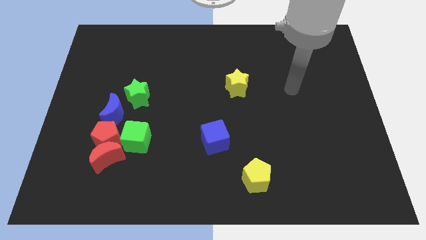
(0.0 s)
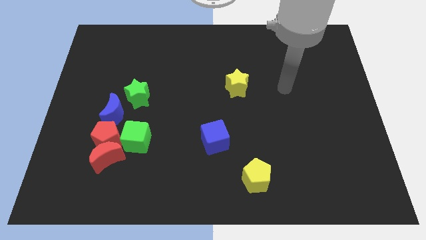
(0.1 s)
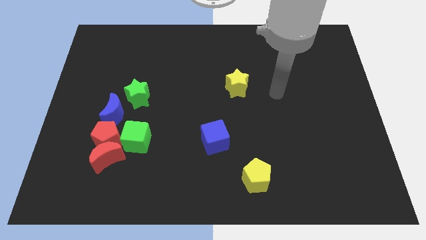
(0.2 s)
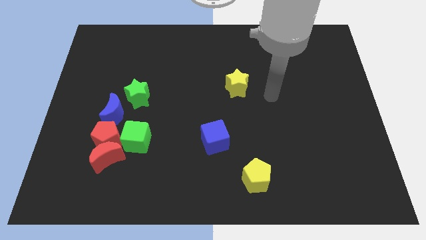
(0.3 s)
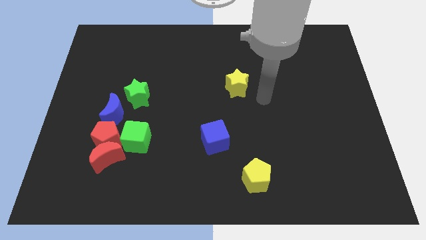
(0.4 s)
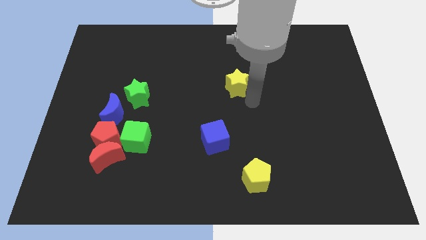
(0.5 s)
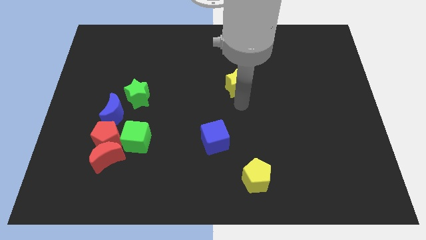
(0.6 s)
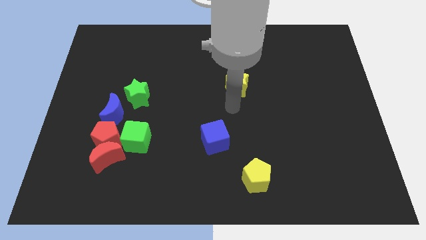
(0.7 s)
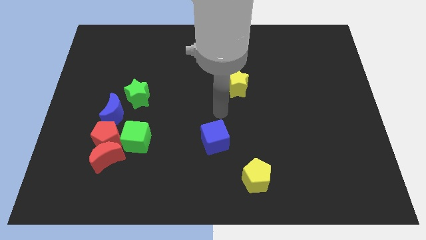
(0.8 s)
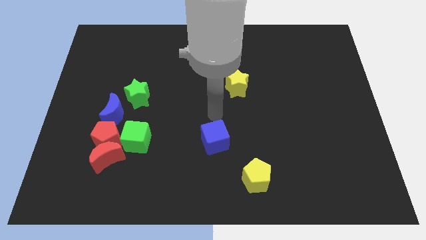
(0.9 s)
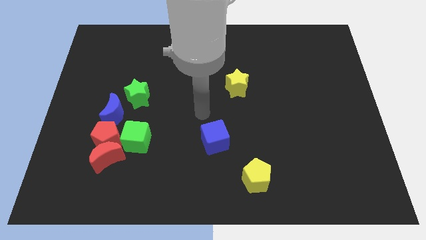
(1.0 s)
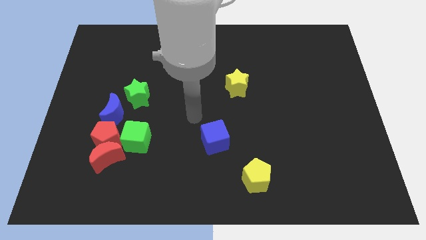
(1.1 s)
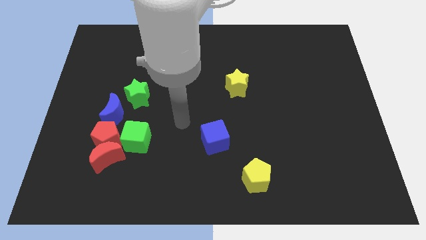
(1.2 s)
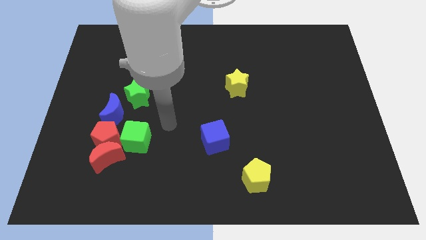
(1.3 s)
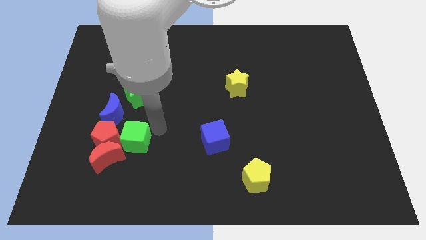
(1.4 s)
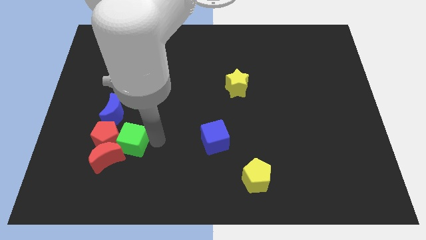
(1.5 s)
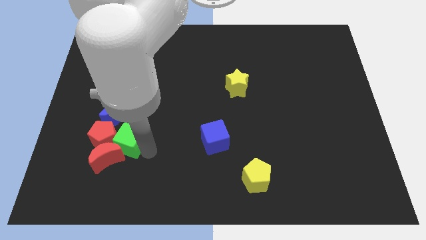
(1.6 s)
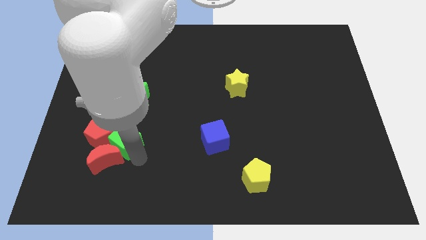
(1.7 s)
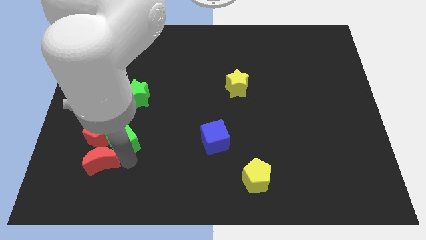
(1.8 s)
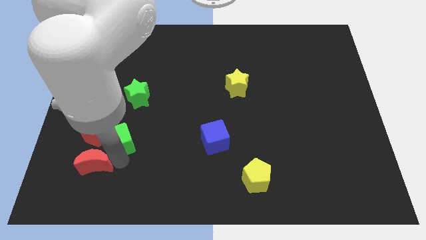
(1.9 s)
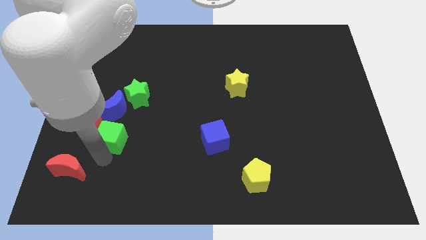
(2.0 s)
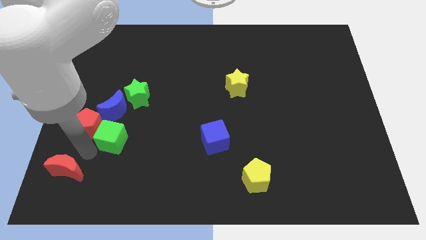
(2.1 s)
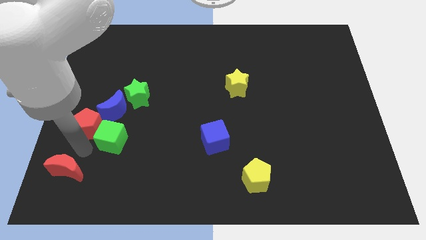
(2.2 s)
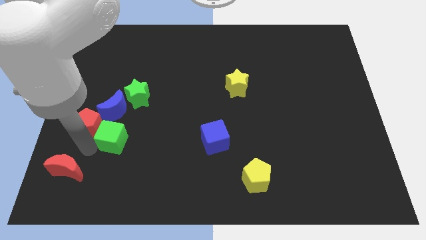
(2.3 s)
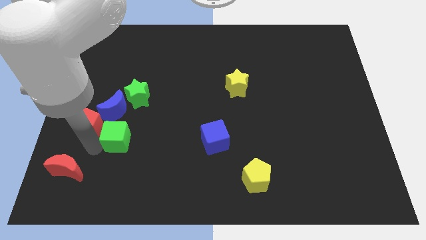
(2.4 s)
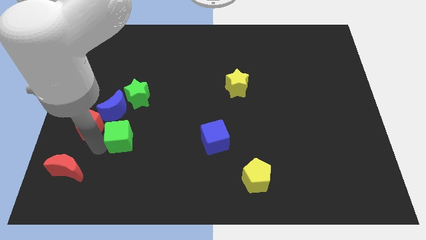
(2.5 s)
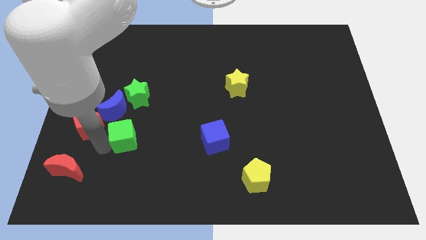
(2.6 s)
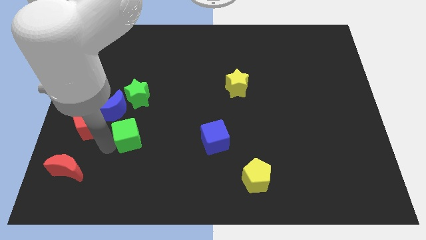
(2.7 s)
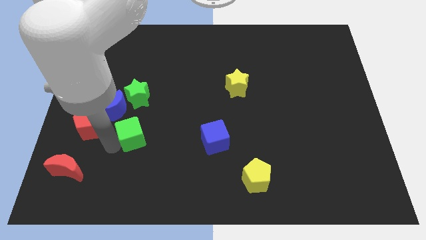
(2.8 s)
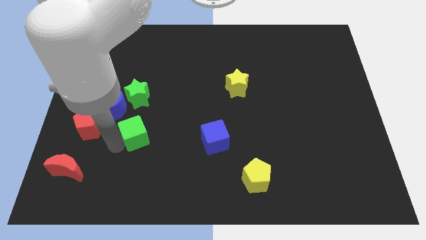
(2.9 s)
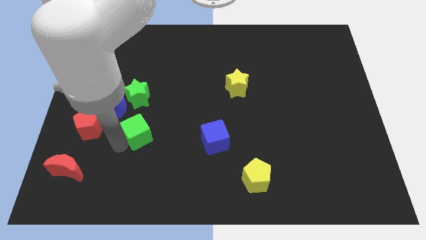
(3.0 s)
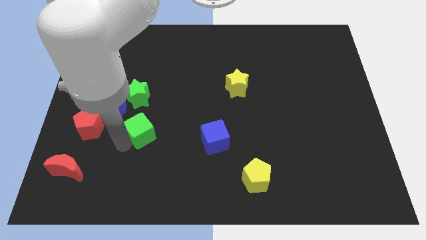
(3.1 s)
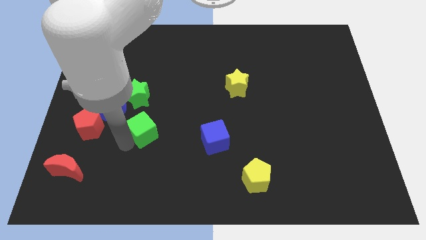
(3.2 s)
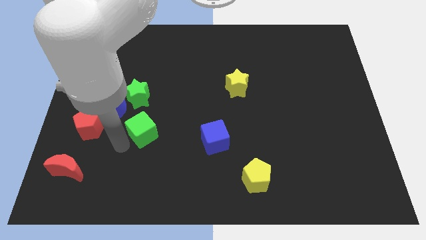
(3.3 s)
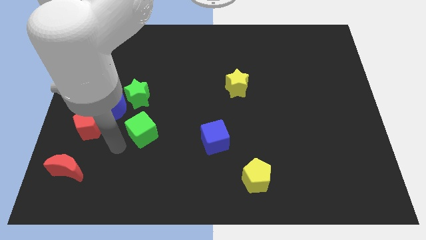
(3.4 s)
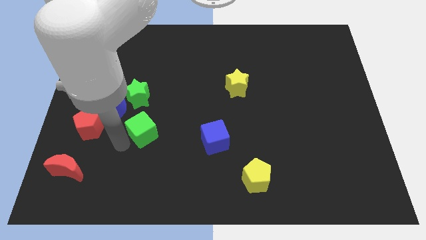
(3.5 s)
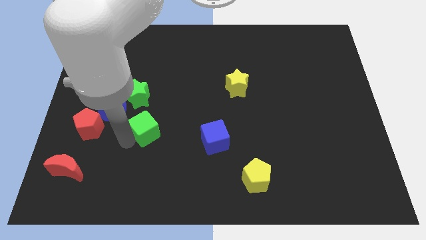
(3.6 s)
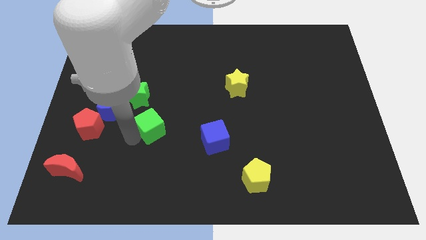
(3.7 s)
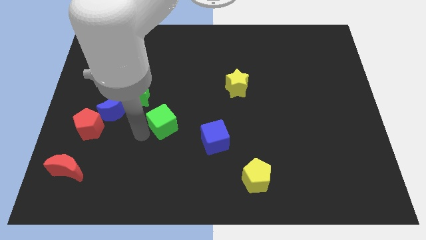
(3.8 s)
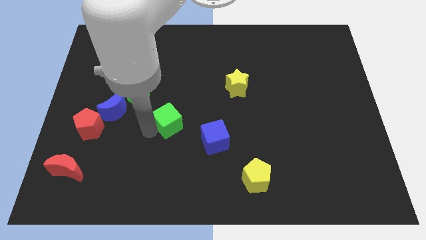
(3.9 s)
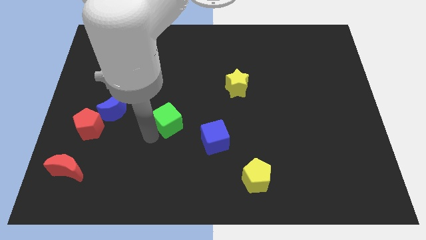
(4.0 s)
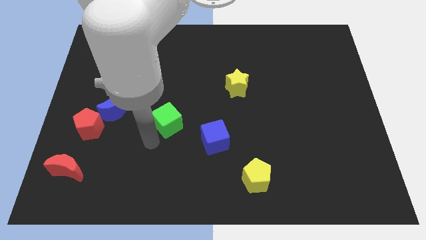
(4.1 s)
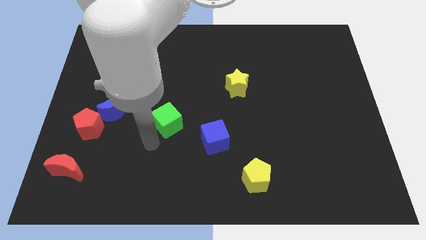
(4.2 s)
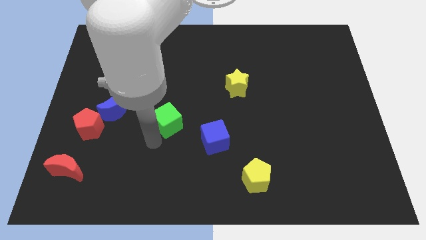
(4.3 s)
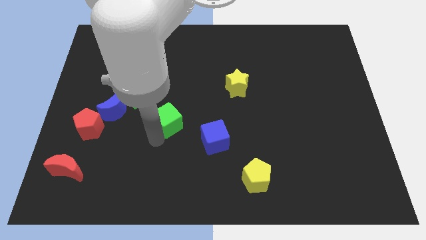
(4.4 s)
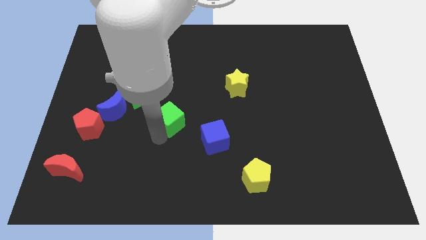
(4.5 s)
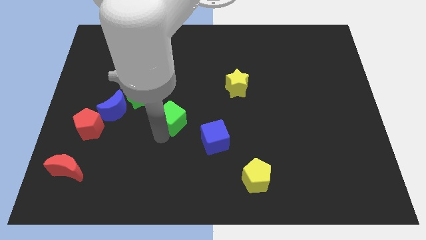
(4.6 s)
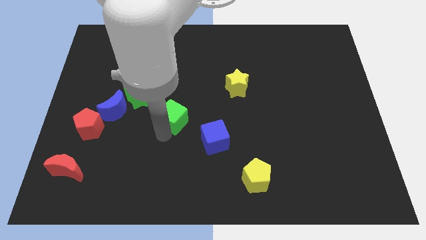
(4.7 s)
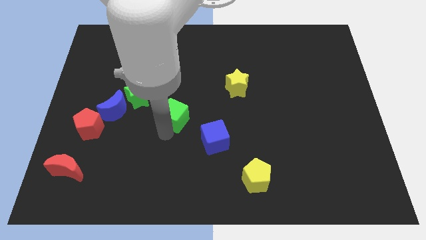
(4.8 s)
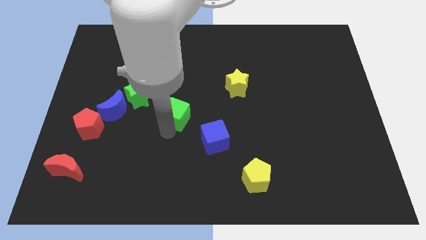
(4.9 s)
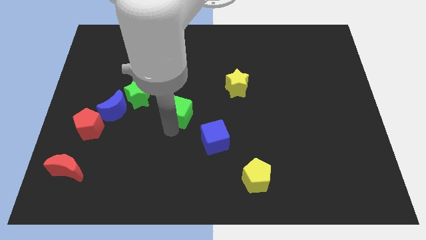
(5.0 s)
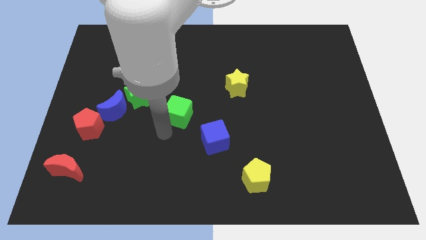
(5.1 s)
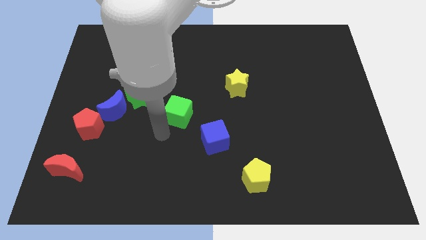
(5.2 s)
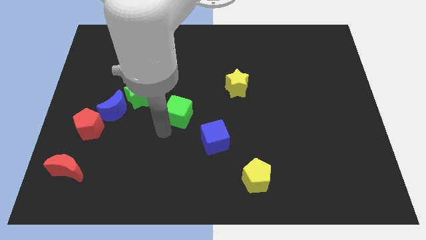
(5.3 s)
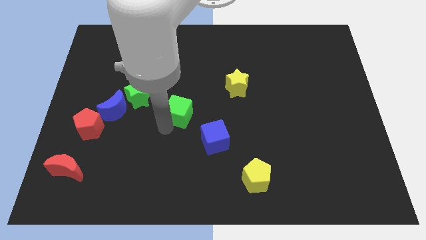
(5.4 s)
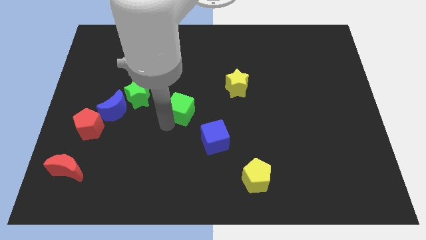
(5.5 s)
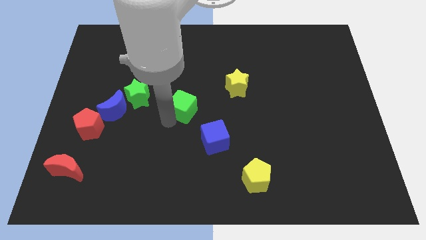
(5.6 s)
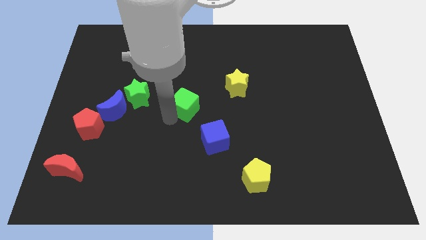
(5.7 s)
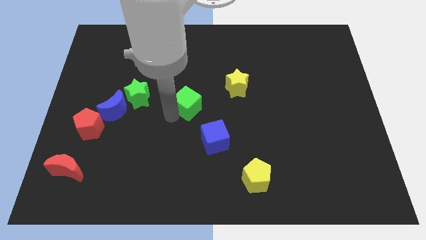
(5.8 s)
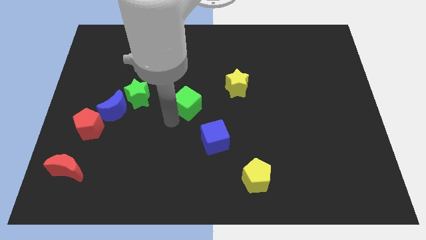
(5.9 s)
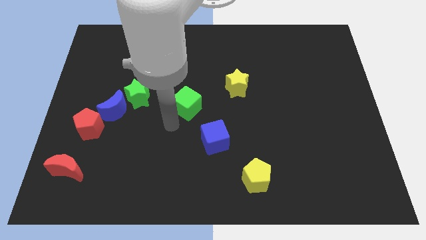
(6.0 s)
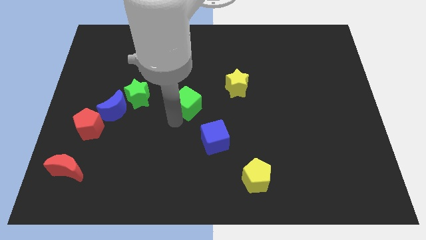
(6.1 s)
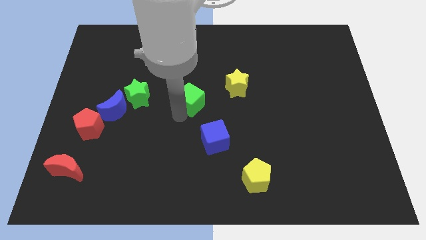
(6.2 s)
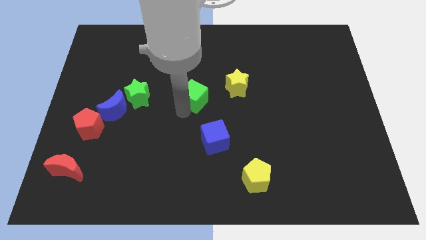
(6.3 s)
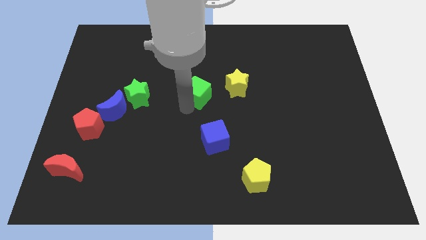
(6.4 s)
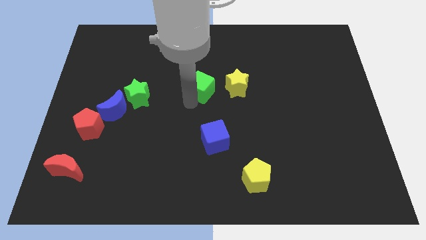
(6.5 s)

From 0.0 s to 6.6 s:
slide the green cube upwards and right

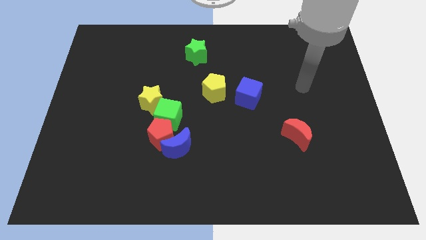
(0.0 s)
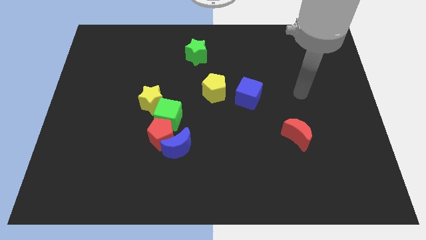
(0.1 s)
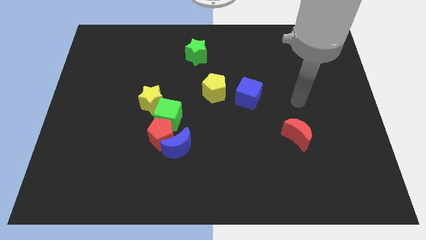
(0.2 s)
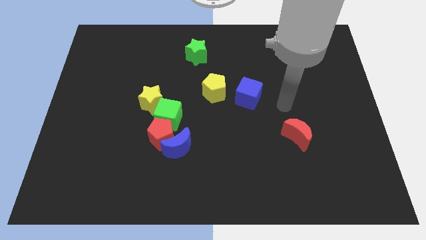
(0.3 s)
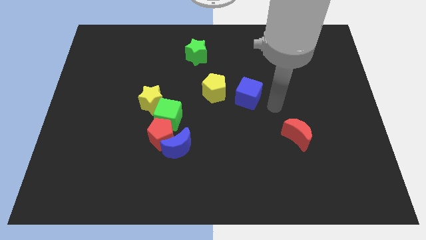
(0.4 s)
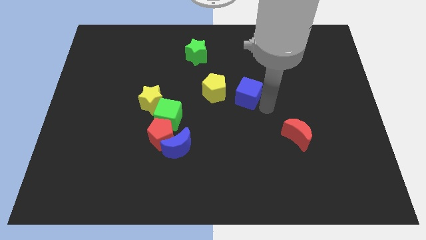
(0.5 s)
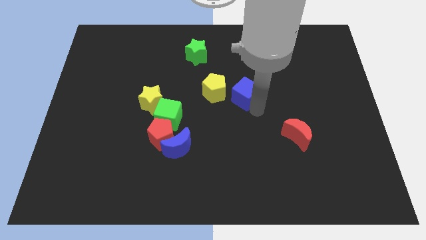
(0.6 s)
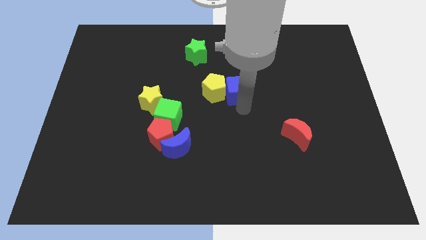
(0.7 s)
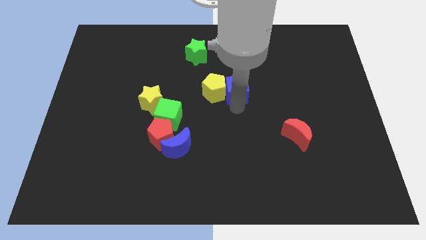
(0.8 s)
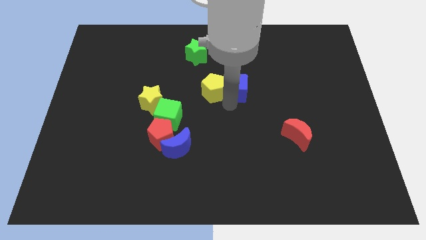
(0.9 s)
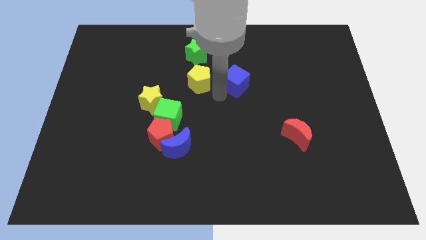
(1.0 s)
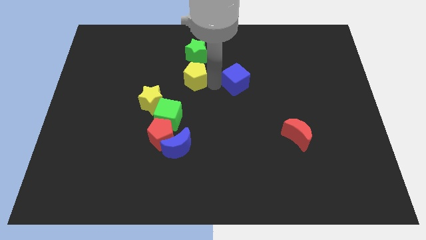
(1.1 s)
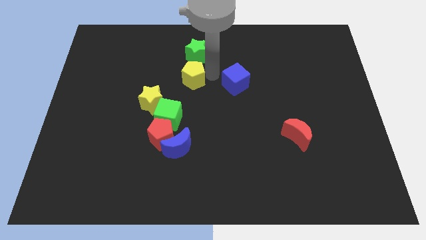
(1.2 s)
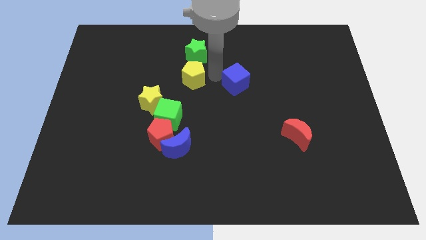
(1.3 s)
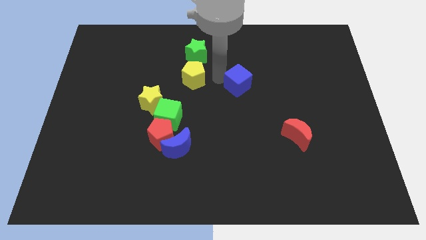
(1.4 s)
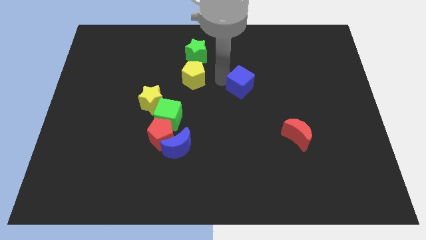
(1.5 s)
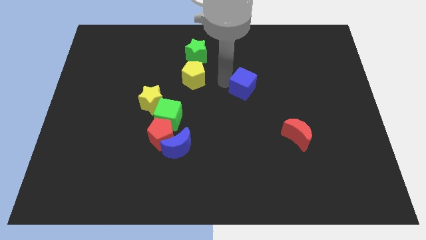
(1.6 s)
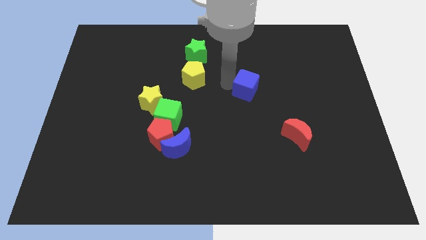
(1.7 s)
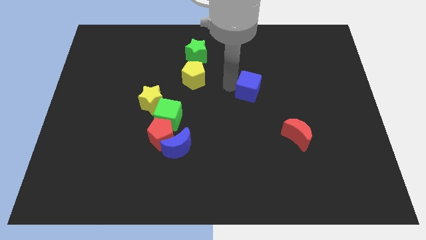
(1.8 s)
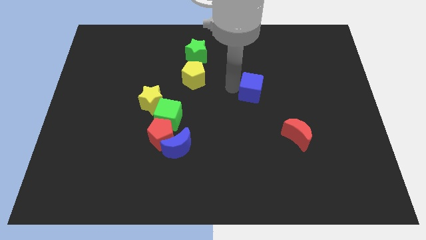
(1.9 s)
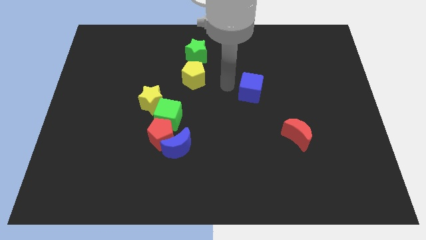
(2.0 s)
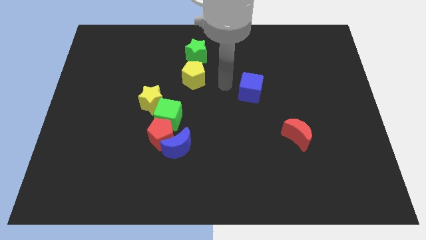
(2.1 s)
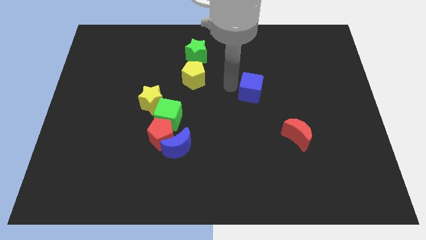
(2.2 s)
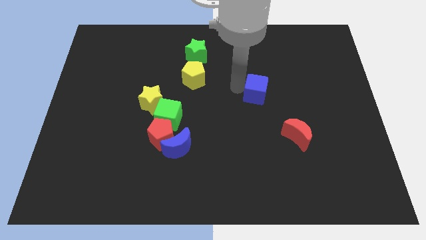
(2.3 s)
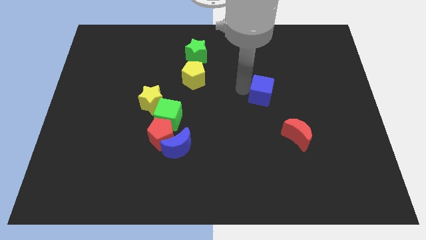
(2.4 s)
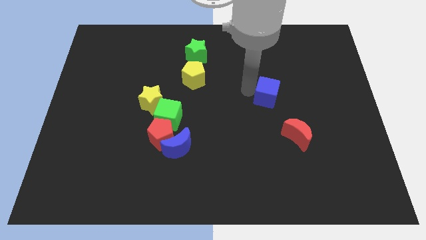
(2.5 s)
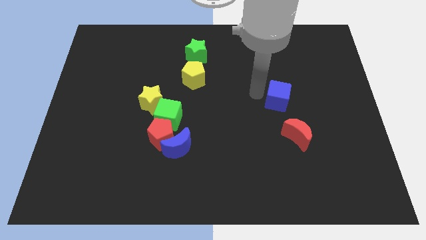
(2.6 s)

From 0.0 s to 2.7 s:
slightly move the blue cube to the right
